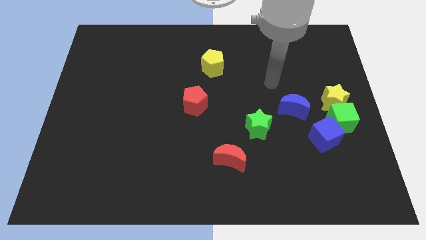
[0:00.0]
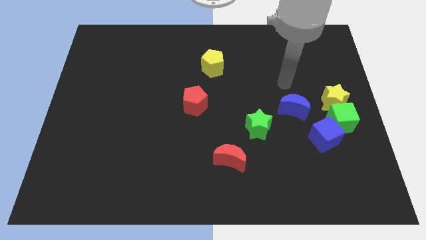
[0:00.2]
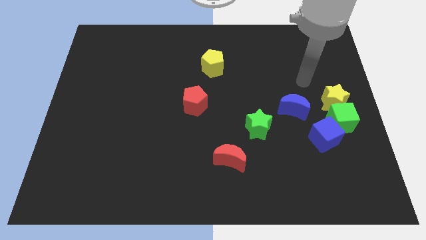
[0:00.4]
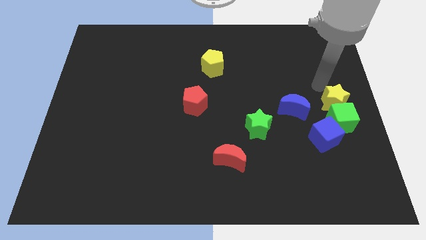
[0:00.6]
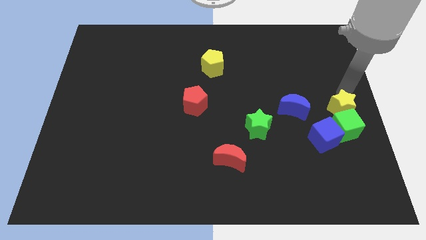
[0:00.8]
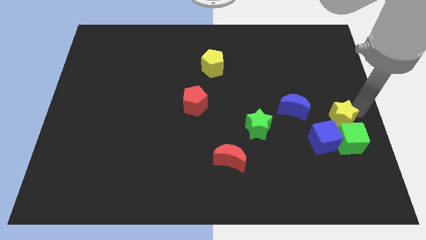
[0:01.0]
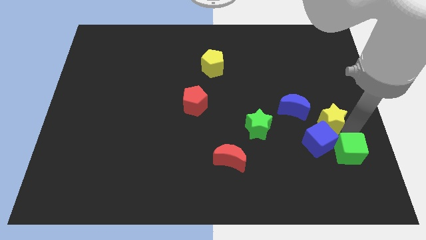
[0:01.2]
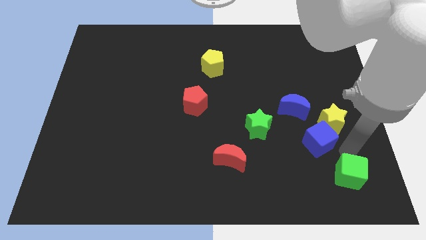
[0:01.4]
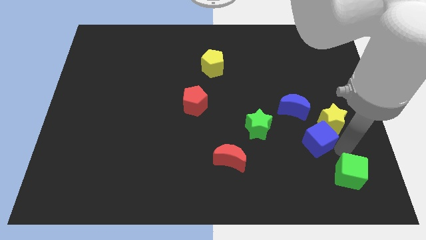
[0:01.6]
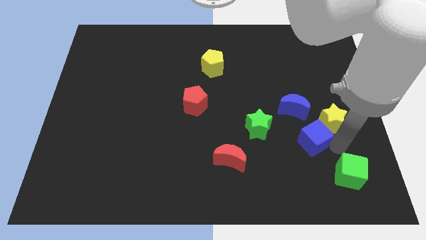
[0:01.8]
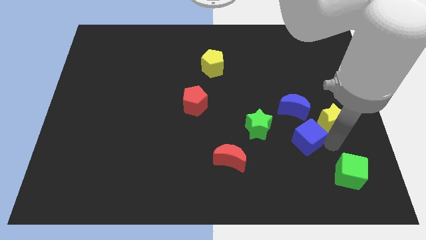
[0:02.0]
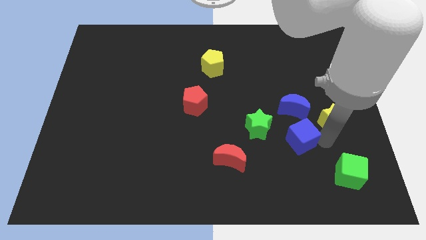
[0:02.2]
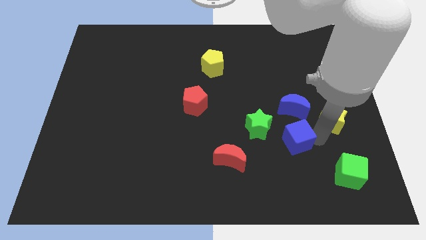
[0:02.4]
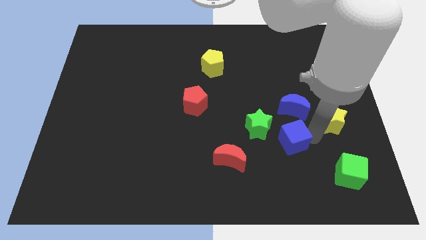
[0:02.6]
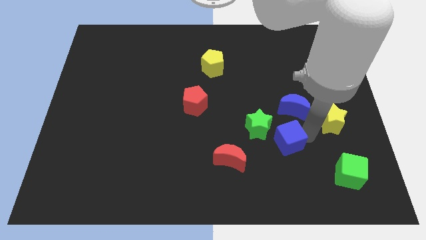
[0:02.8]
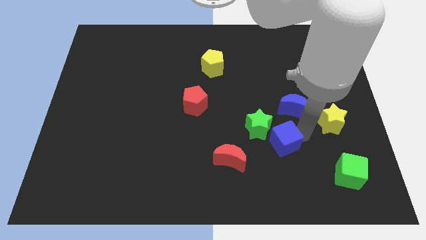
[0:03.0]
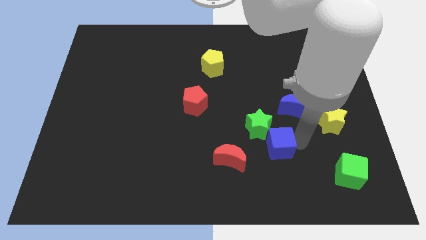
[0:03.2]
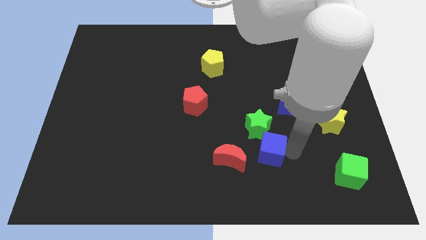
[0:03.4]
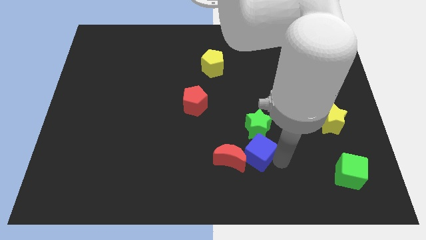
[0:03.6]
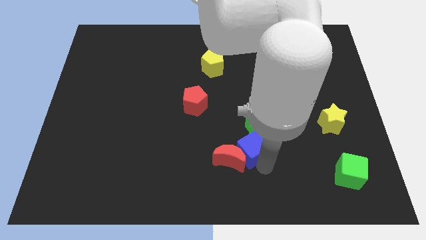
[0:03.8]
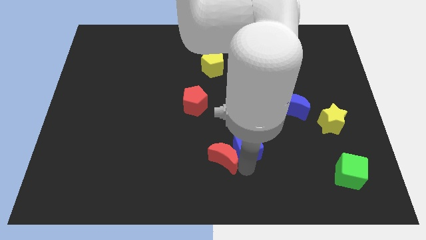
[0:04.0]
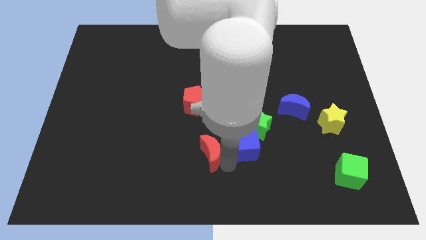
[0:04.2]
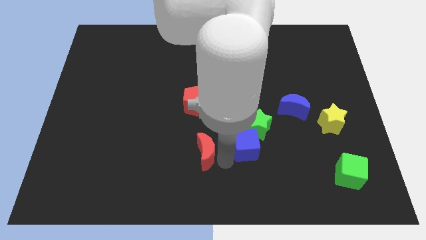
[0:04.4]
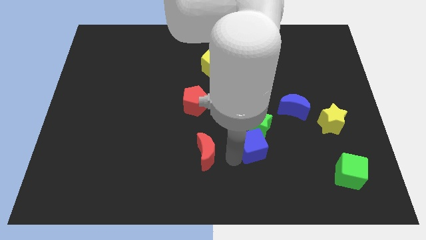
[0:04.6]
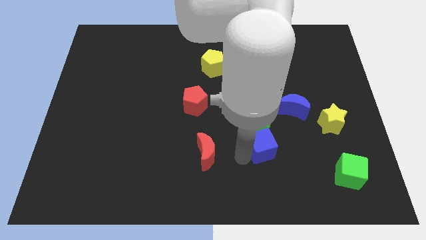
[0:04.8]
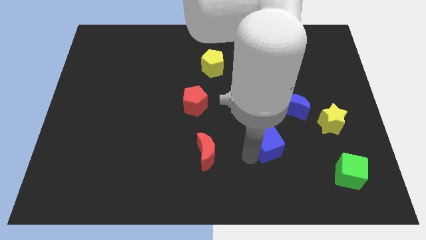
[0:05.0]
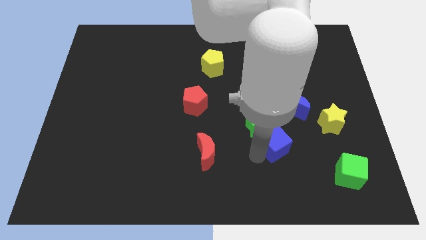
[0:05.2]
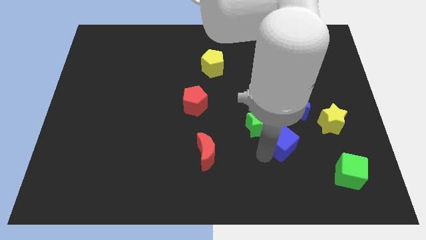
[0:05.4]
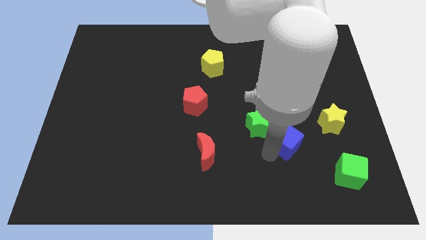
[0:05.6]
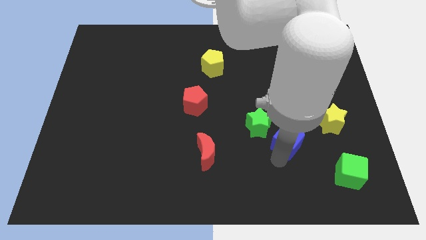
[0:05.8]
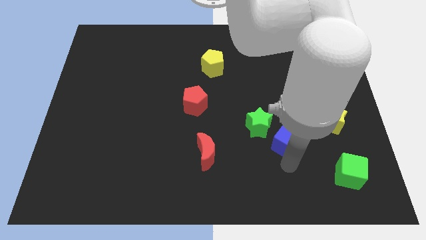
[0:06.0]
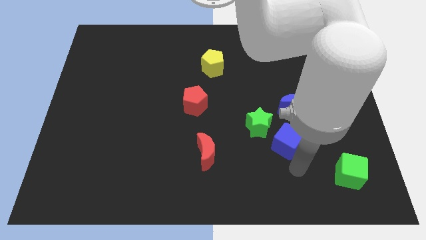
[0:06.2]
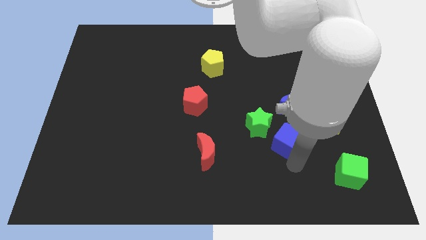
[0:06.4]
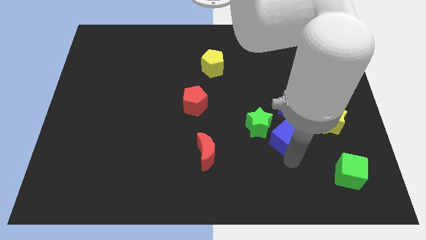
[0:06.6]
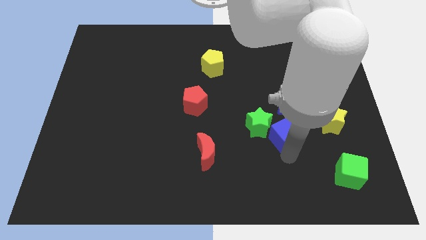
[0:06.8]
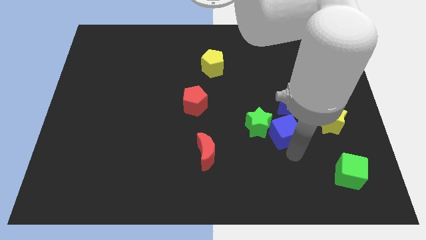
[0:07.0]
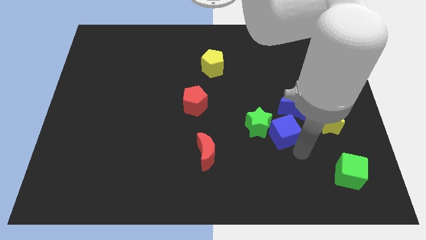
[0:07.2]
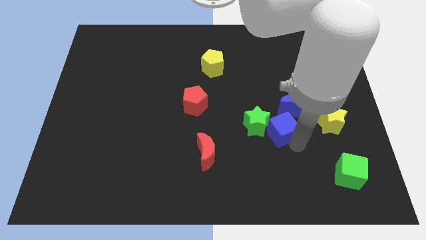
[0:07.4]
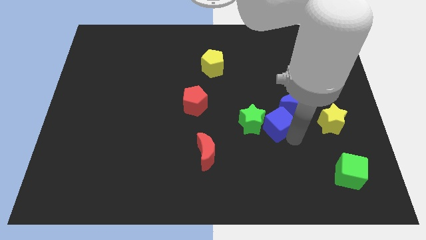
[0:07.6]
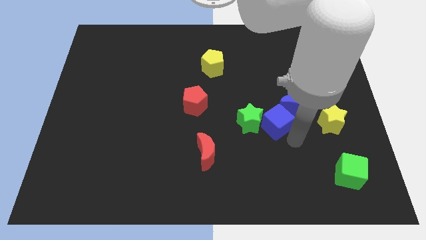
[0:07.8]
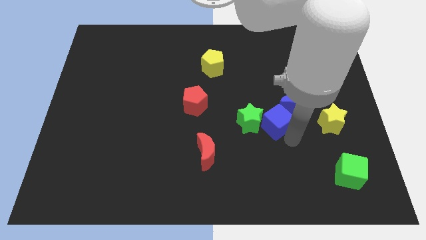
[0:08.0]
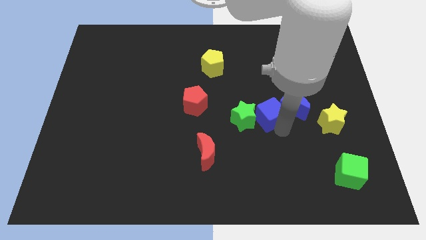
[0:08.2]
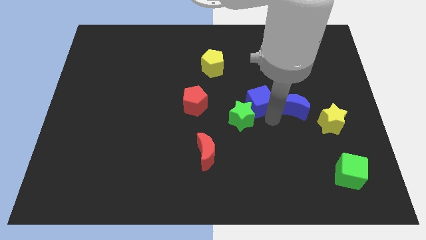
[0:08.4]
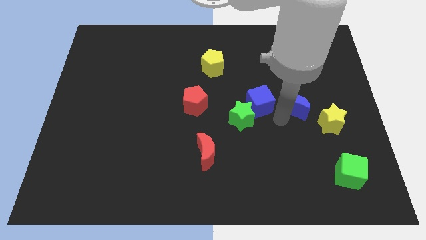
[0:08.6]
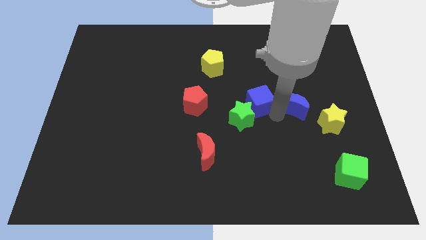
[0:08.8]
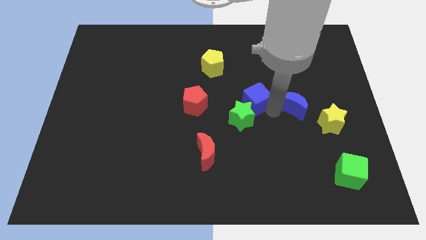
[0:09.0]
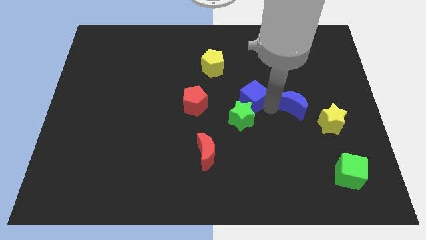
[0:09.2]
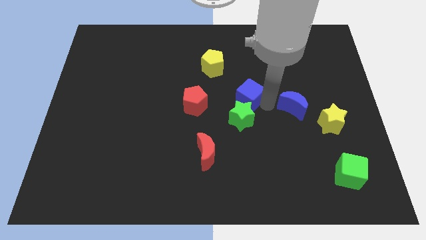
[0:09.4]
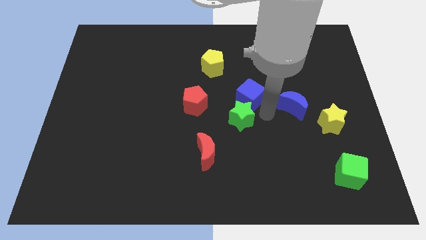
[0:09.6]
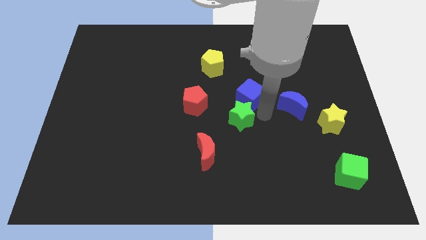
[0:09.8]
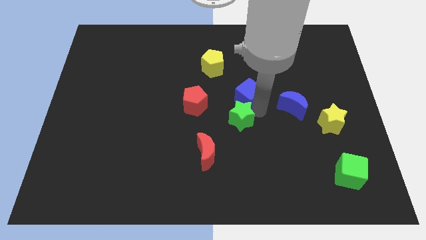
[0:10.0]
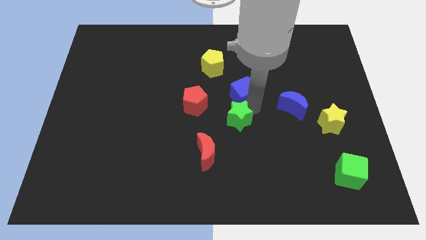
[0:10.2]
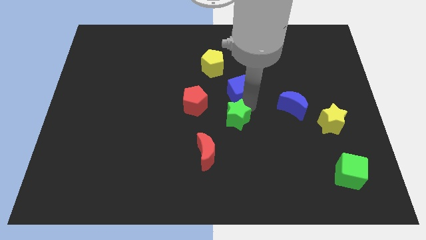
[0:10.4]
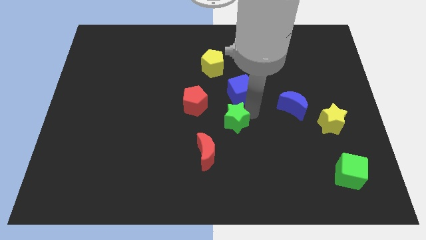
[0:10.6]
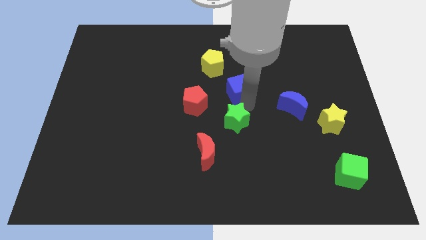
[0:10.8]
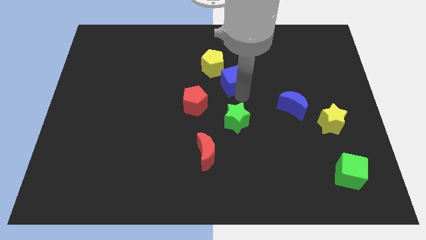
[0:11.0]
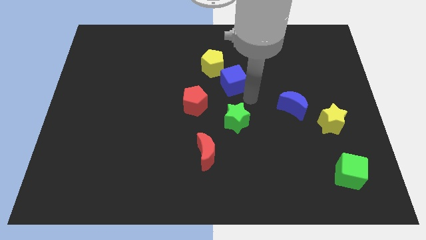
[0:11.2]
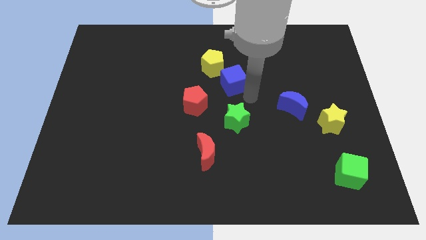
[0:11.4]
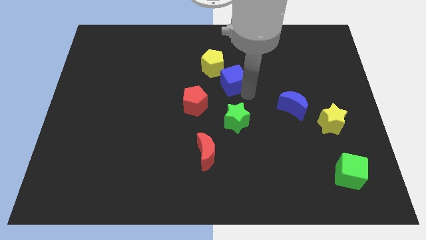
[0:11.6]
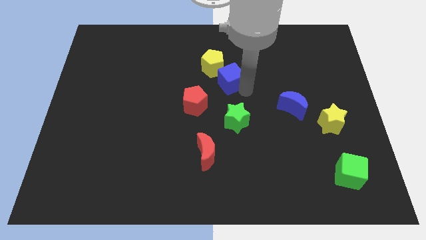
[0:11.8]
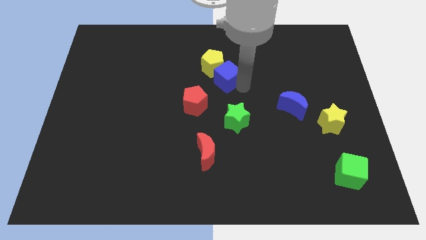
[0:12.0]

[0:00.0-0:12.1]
move the blue cube towards the yellow pentagon

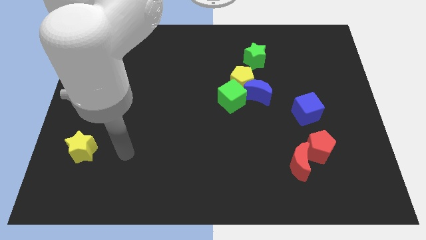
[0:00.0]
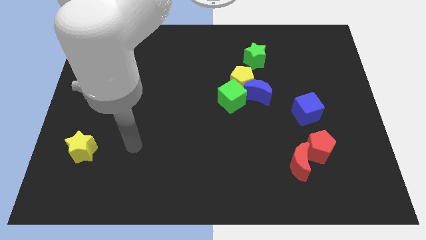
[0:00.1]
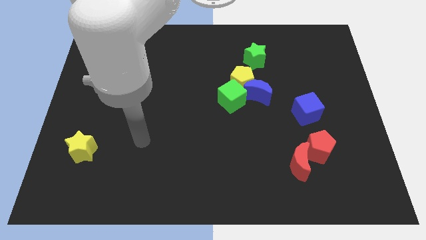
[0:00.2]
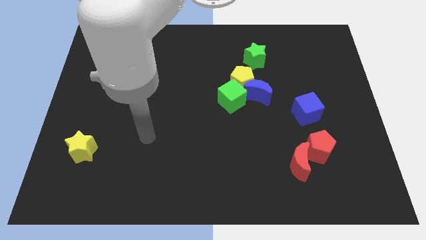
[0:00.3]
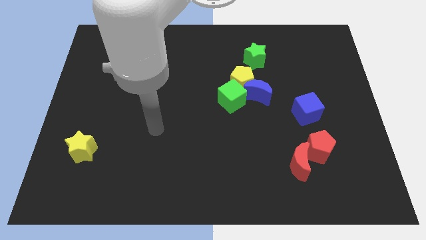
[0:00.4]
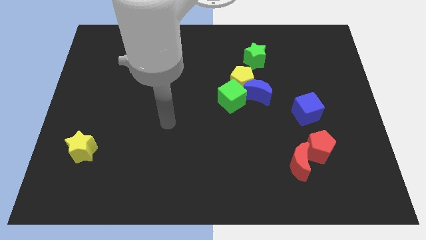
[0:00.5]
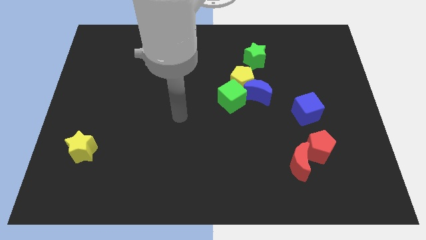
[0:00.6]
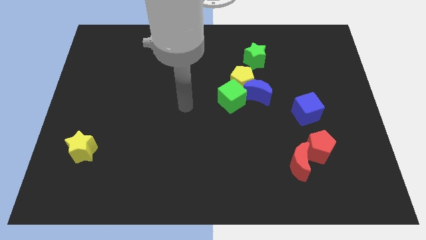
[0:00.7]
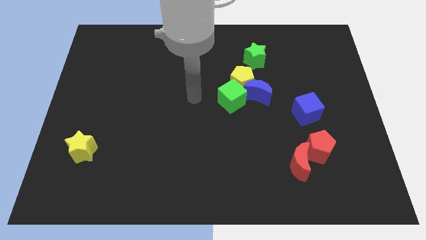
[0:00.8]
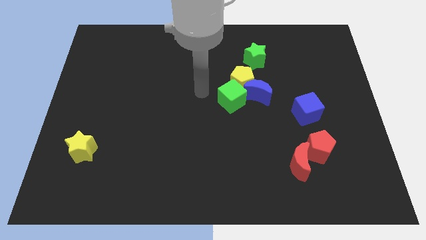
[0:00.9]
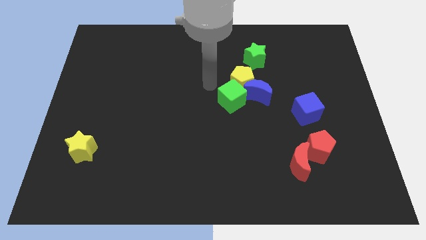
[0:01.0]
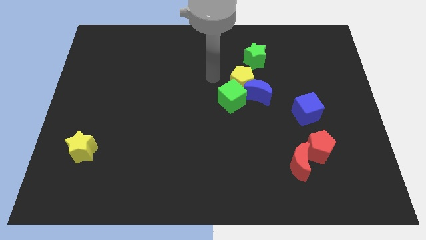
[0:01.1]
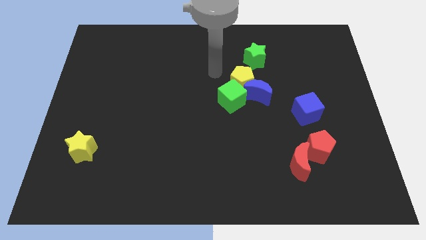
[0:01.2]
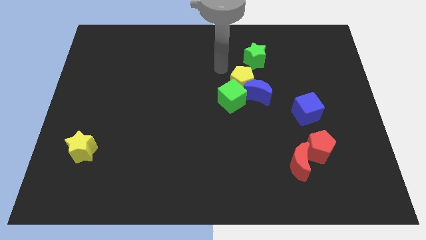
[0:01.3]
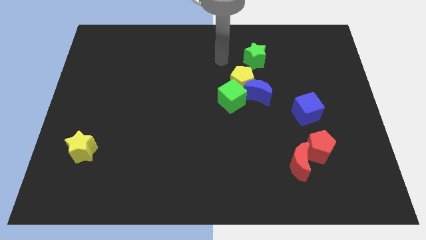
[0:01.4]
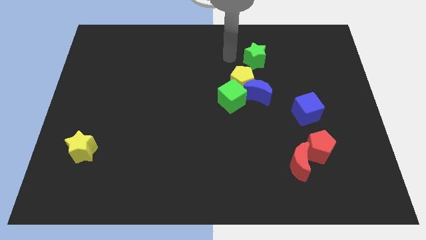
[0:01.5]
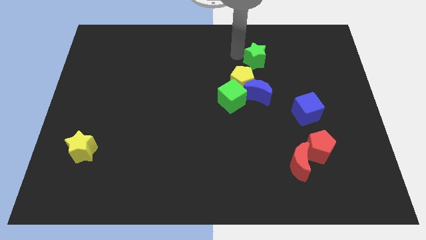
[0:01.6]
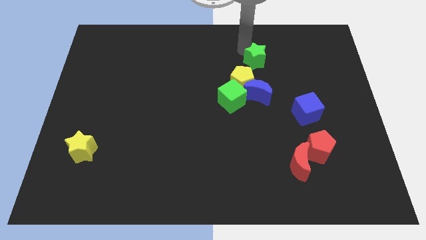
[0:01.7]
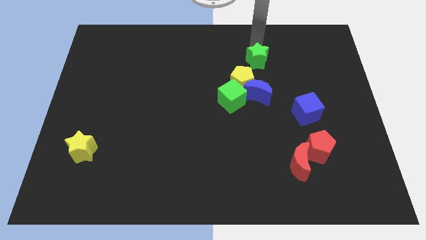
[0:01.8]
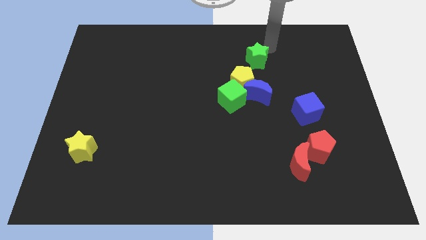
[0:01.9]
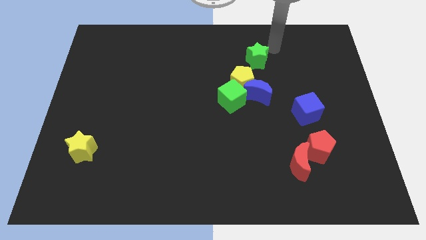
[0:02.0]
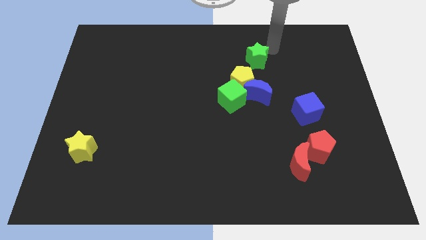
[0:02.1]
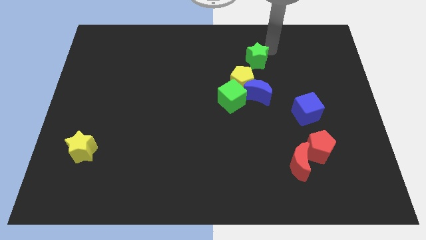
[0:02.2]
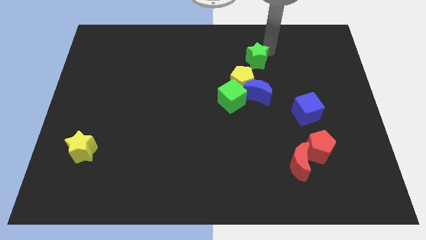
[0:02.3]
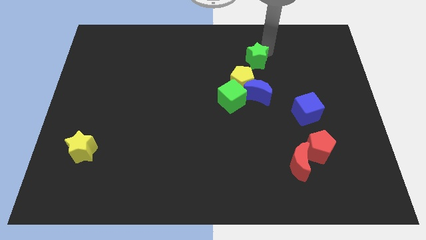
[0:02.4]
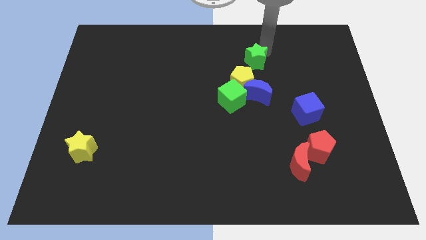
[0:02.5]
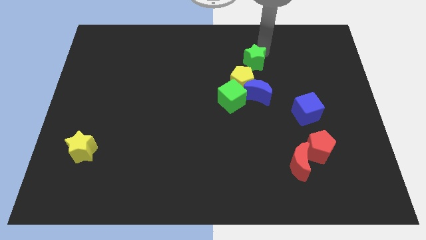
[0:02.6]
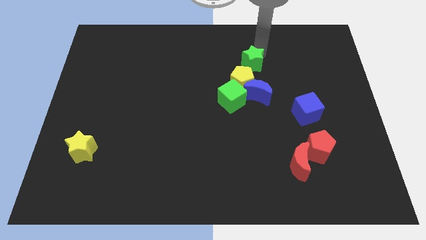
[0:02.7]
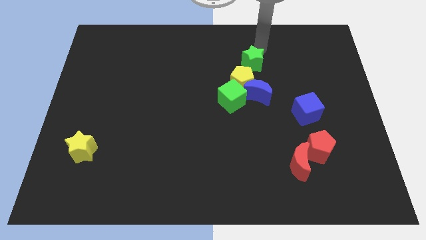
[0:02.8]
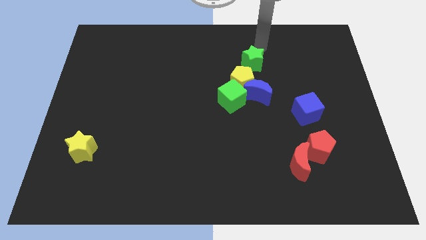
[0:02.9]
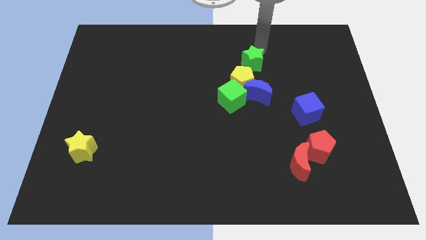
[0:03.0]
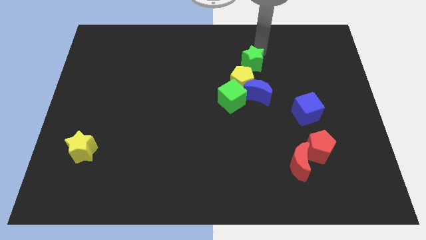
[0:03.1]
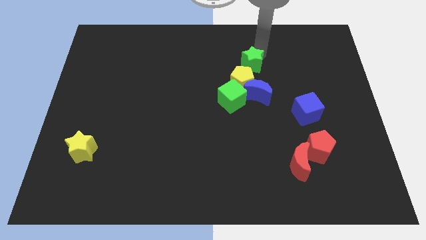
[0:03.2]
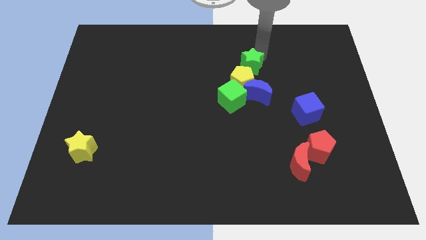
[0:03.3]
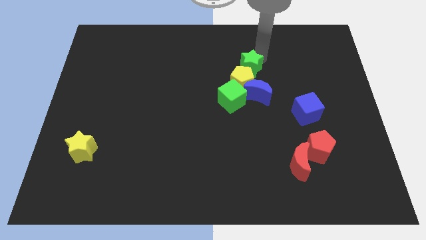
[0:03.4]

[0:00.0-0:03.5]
move the green star towards the yellow pentagon
